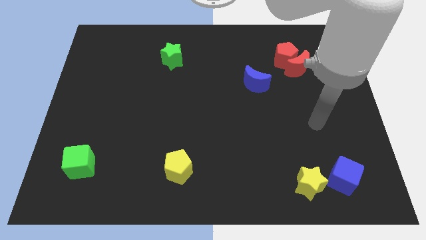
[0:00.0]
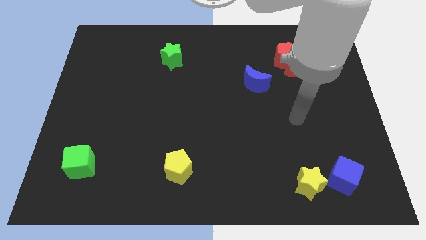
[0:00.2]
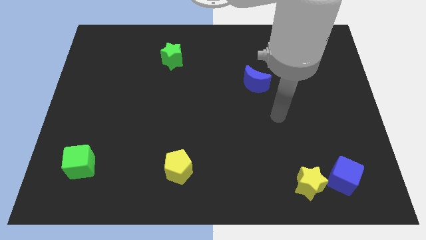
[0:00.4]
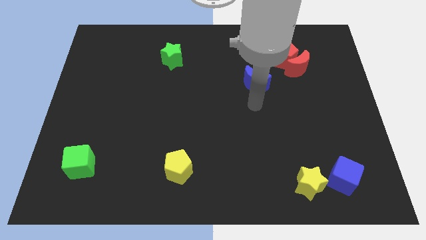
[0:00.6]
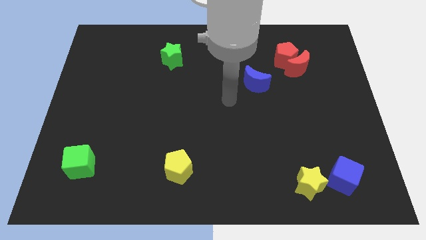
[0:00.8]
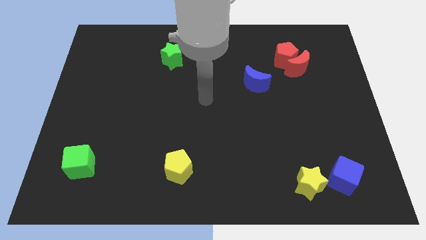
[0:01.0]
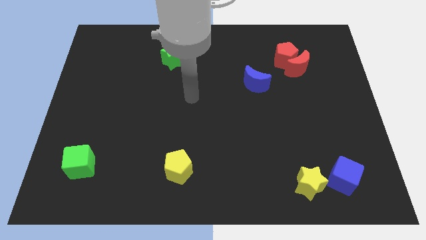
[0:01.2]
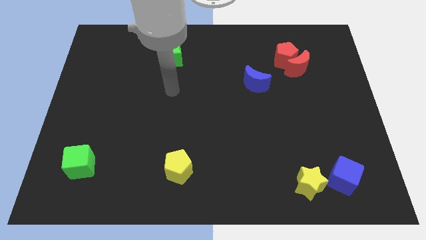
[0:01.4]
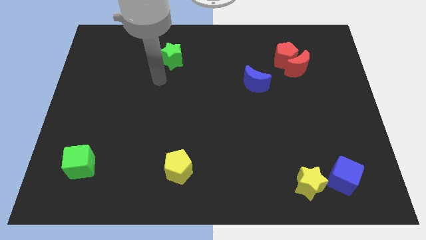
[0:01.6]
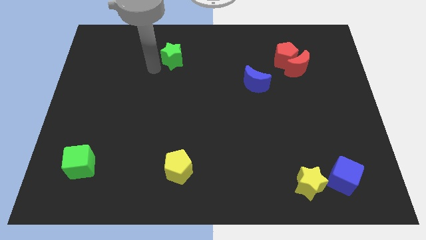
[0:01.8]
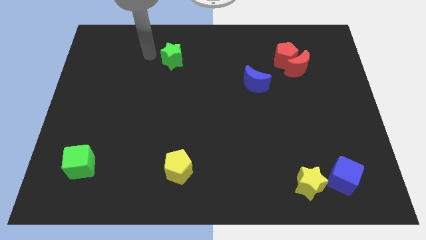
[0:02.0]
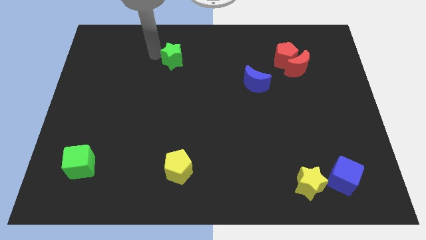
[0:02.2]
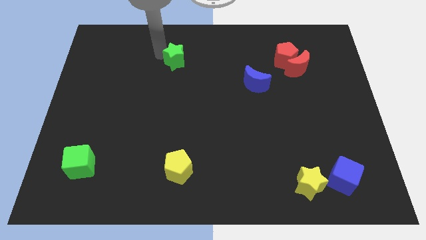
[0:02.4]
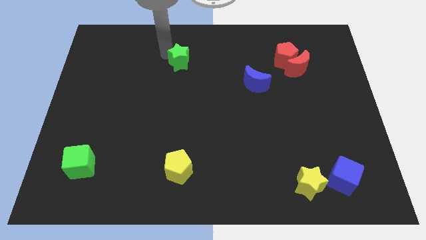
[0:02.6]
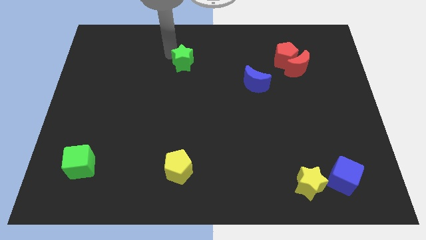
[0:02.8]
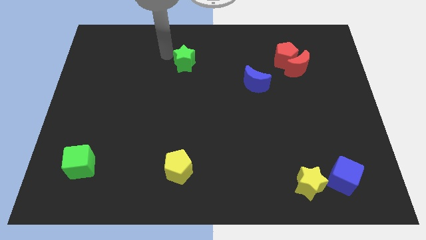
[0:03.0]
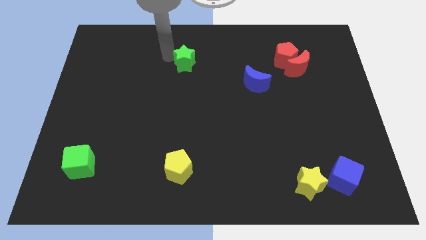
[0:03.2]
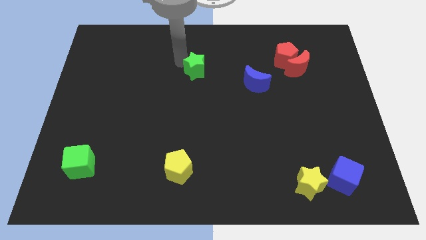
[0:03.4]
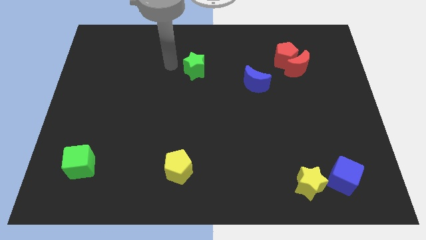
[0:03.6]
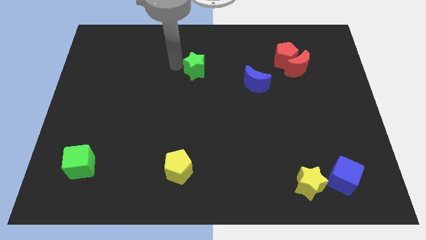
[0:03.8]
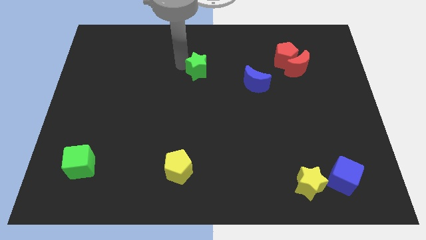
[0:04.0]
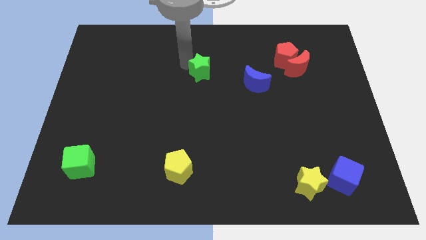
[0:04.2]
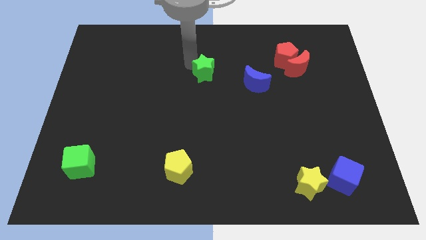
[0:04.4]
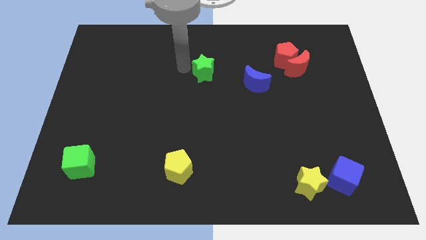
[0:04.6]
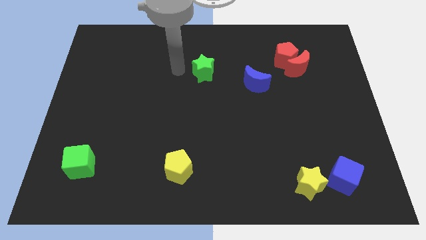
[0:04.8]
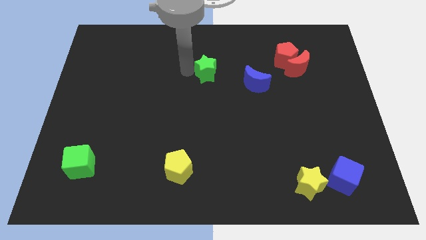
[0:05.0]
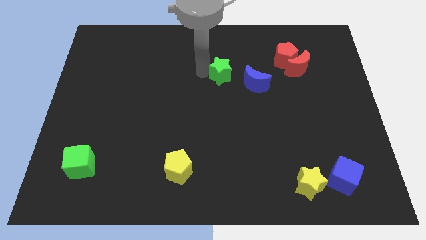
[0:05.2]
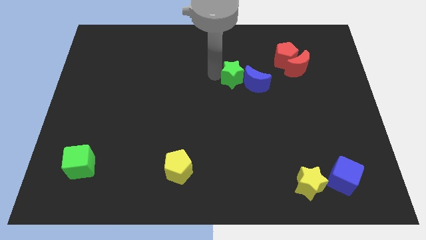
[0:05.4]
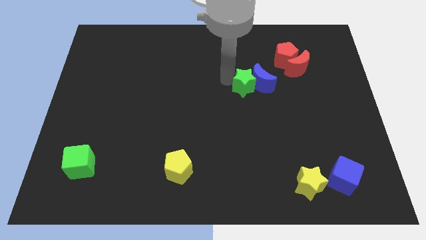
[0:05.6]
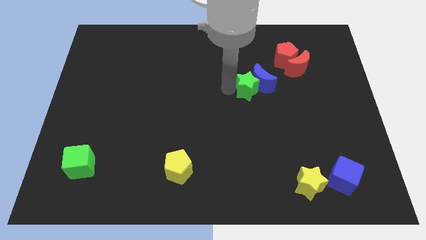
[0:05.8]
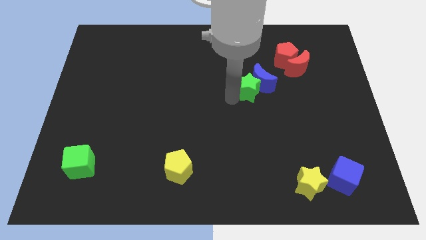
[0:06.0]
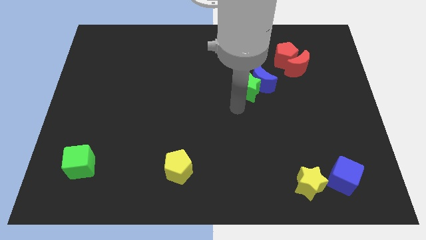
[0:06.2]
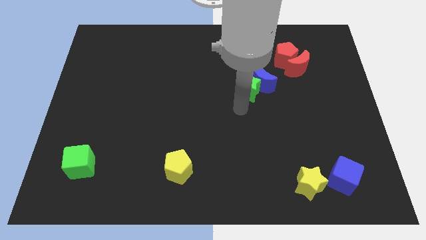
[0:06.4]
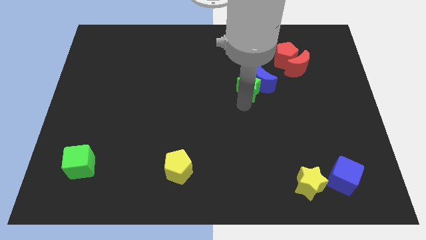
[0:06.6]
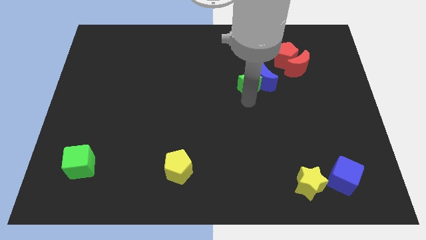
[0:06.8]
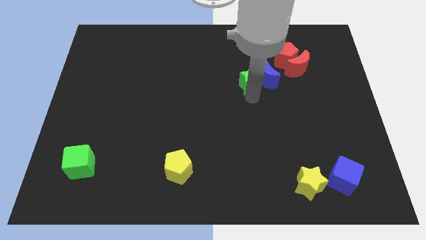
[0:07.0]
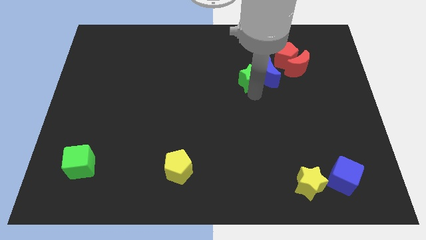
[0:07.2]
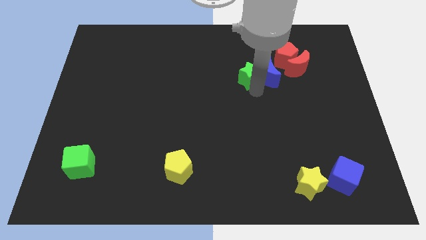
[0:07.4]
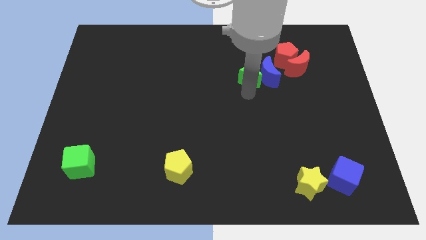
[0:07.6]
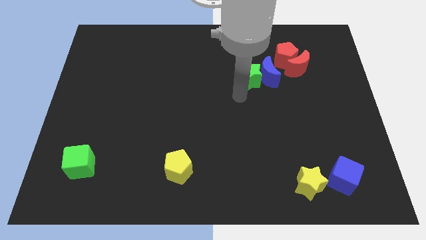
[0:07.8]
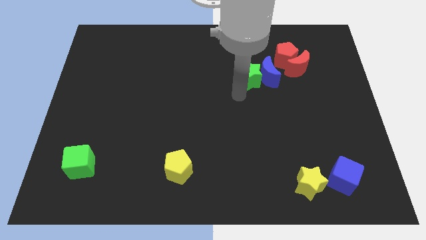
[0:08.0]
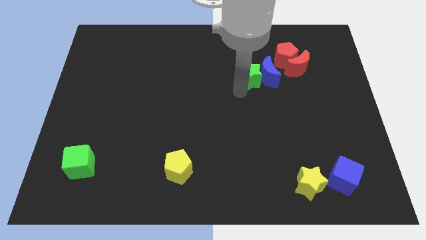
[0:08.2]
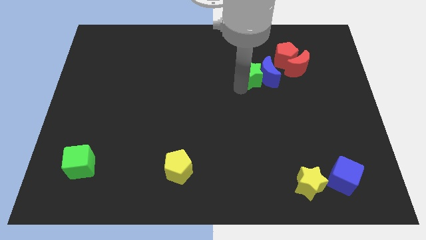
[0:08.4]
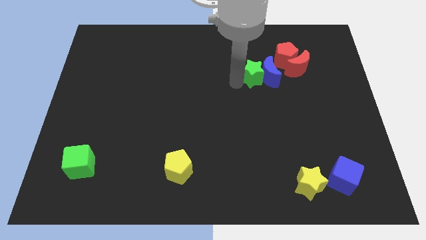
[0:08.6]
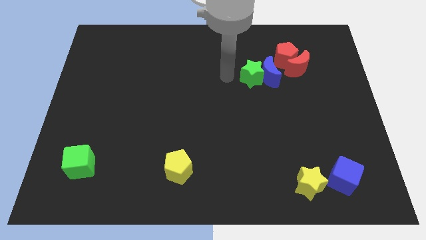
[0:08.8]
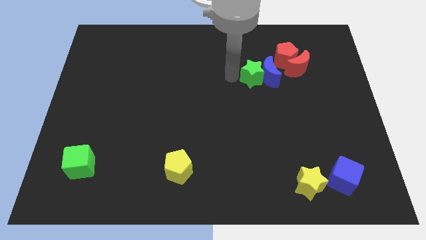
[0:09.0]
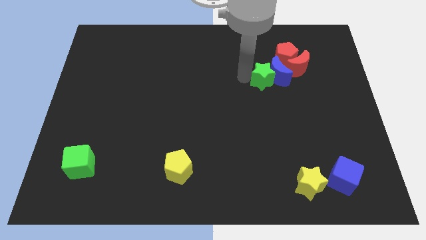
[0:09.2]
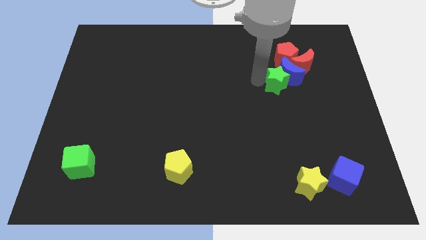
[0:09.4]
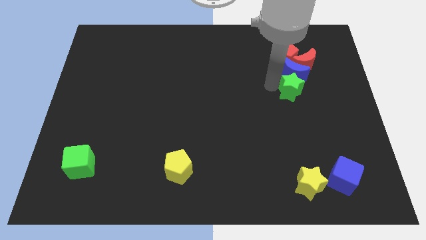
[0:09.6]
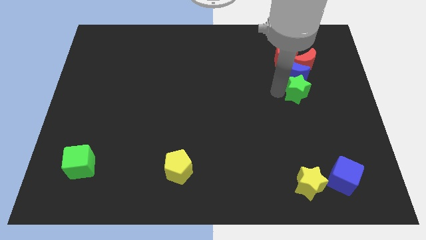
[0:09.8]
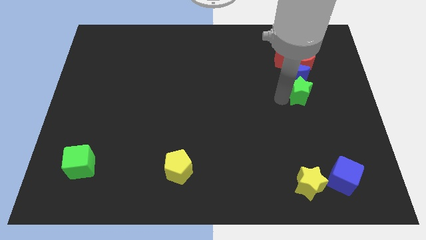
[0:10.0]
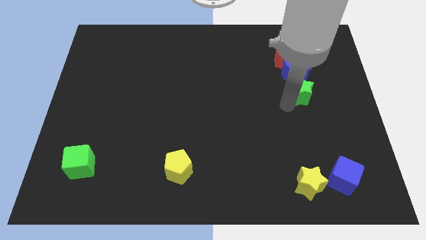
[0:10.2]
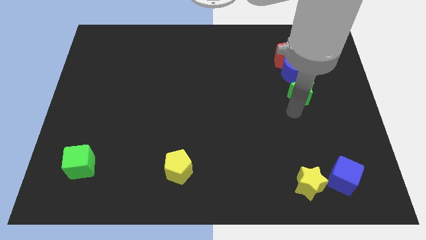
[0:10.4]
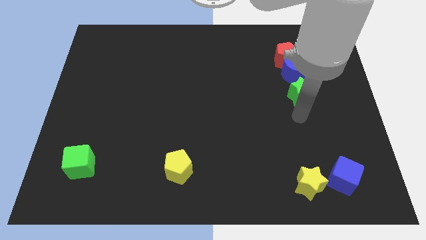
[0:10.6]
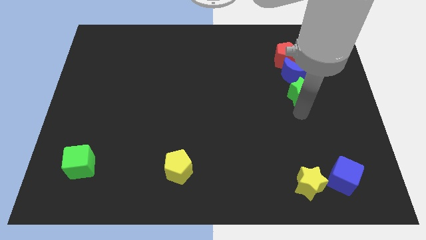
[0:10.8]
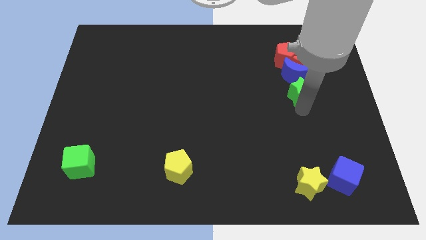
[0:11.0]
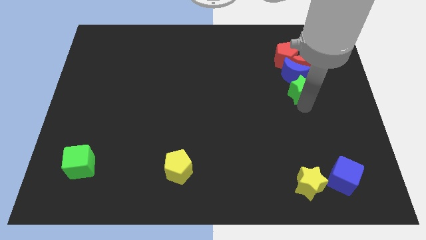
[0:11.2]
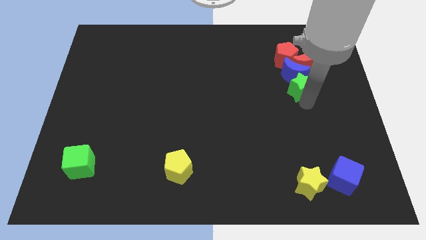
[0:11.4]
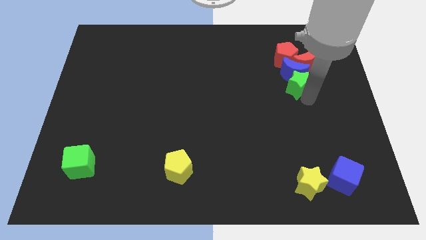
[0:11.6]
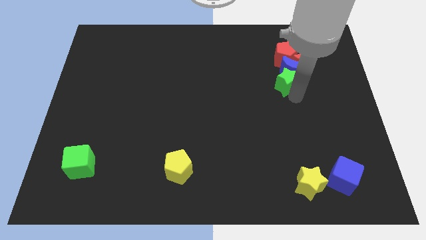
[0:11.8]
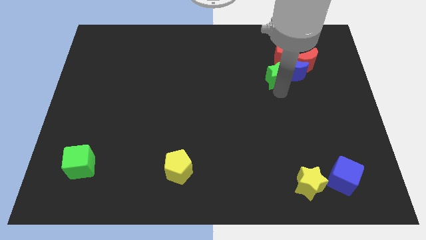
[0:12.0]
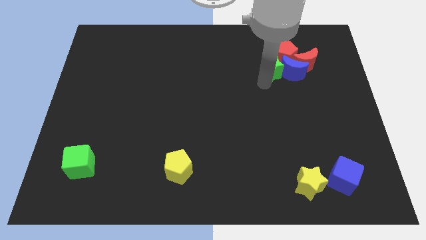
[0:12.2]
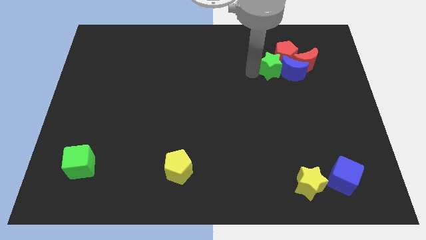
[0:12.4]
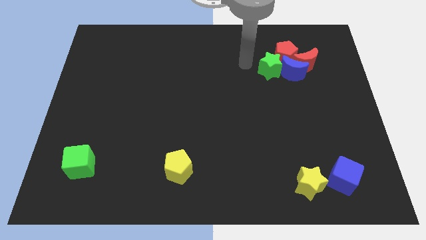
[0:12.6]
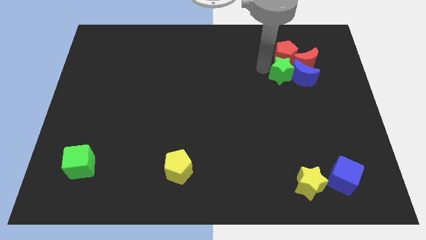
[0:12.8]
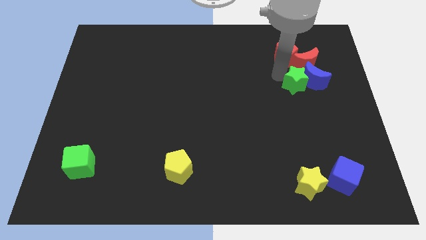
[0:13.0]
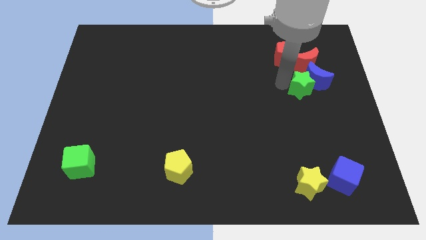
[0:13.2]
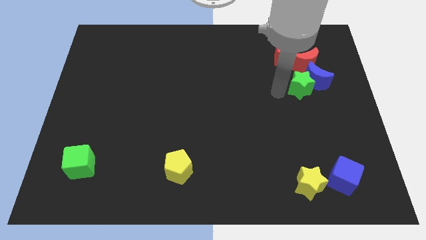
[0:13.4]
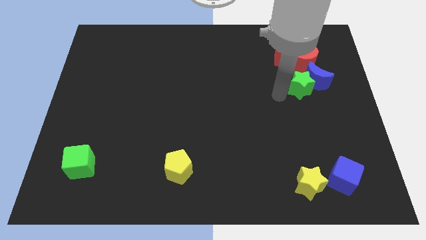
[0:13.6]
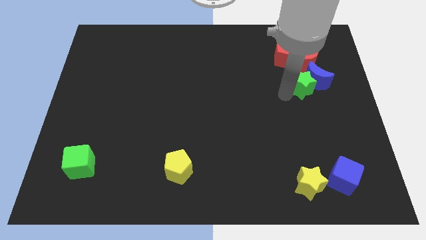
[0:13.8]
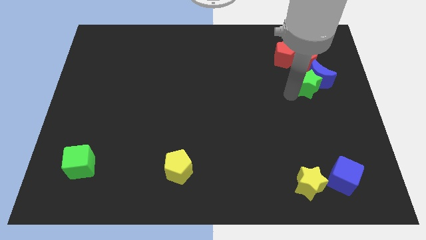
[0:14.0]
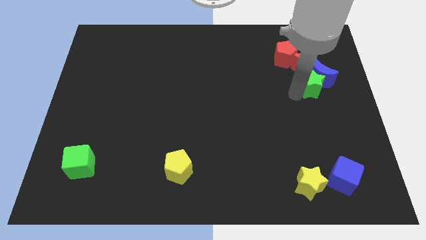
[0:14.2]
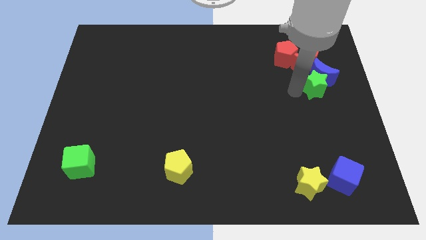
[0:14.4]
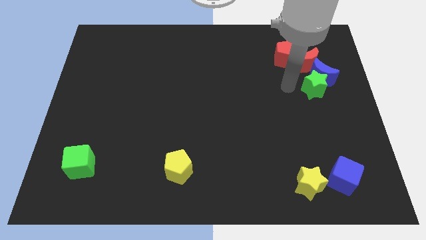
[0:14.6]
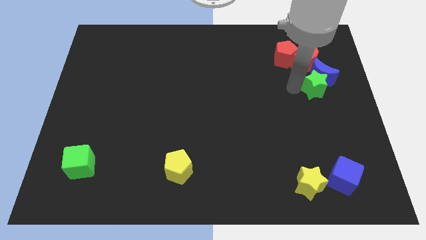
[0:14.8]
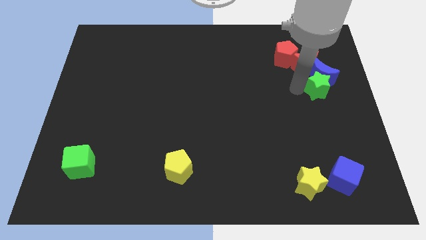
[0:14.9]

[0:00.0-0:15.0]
move the green star to the right side
